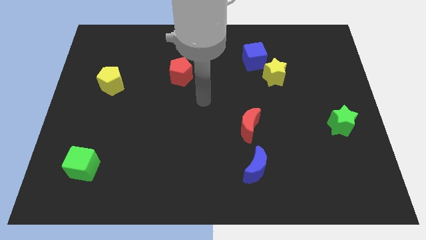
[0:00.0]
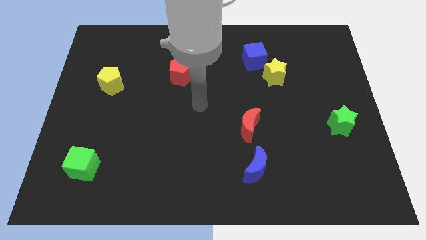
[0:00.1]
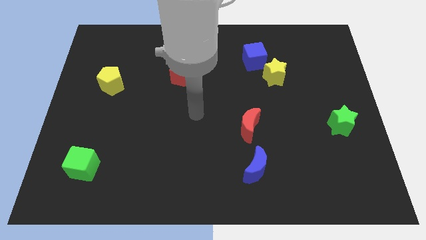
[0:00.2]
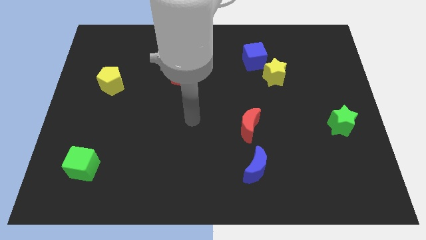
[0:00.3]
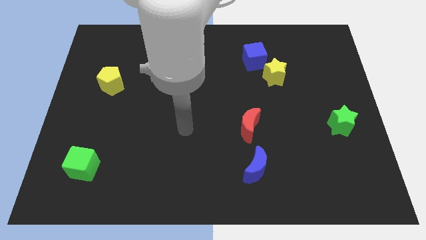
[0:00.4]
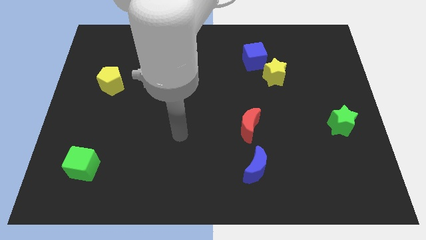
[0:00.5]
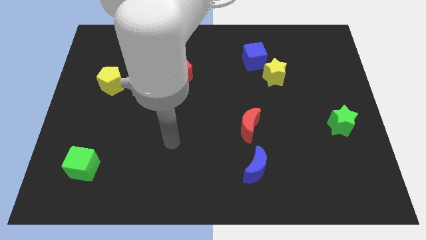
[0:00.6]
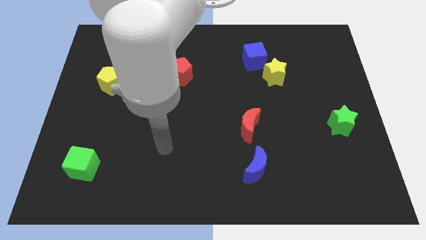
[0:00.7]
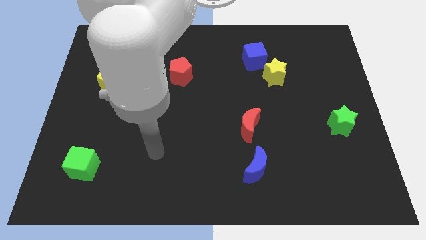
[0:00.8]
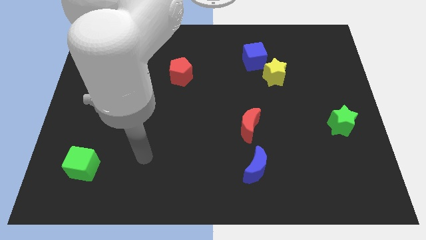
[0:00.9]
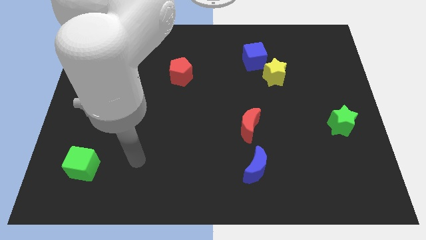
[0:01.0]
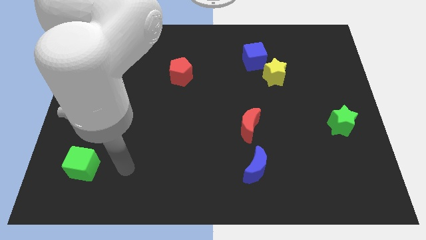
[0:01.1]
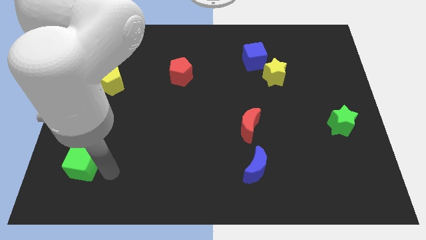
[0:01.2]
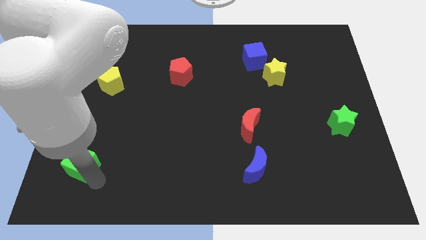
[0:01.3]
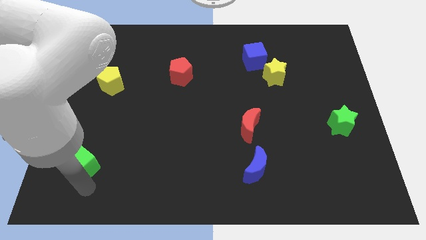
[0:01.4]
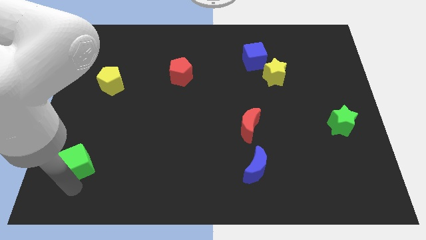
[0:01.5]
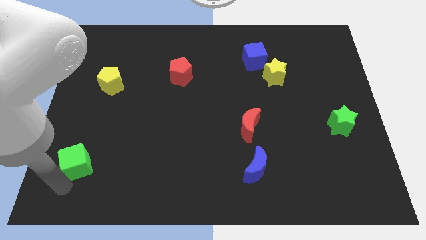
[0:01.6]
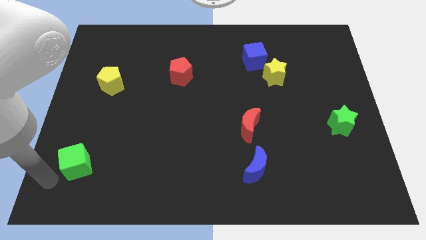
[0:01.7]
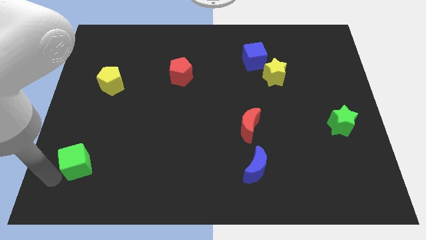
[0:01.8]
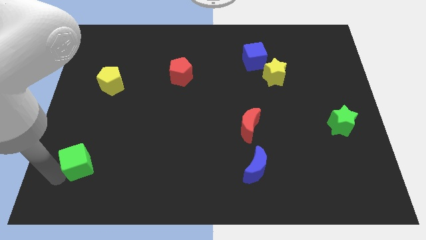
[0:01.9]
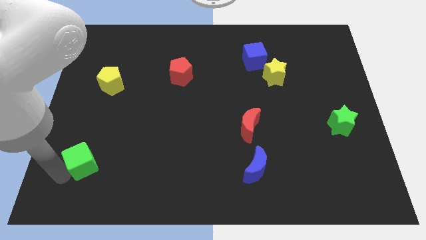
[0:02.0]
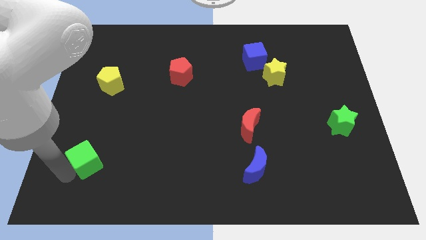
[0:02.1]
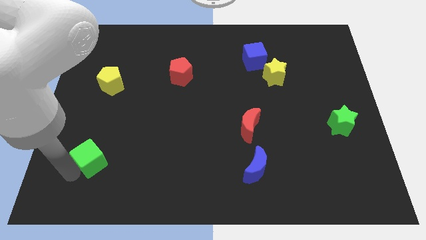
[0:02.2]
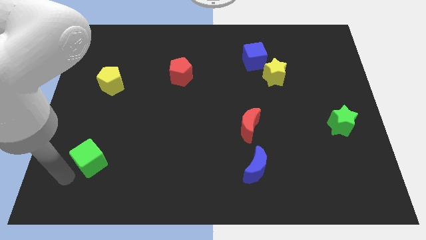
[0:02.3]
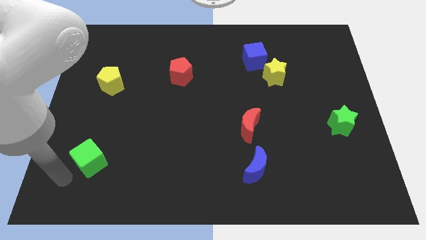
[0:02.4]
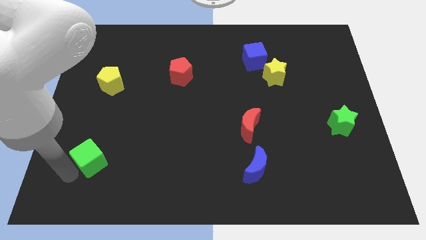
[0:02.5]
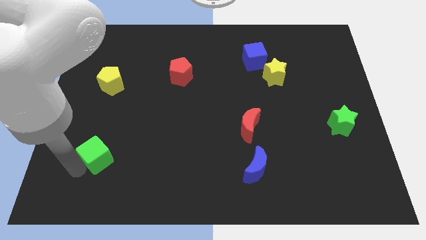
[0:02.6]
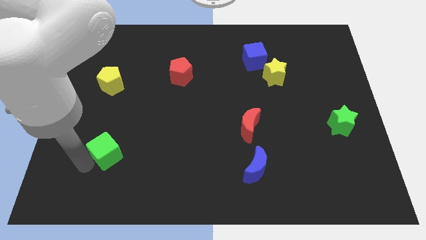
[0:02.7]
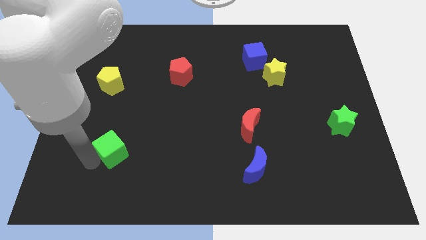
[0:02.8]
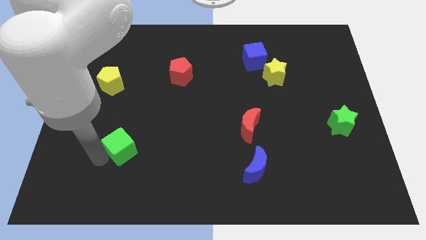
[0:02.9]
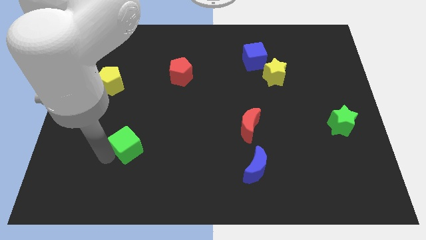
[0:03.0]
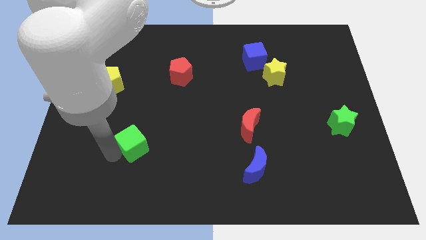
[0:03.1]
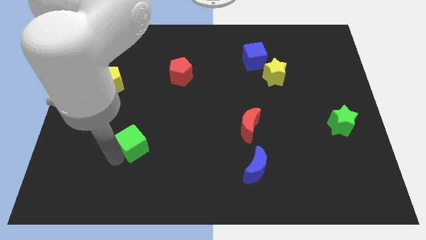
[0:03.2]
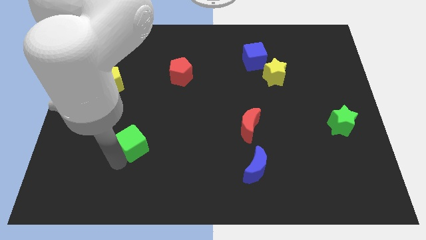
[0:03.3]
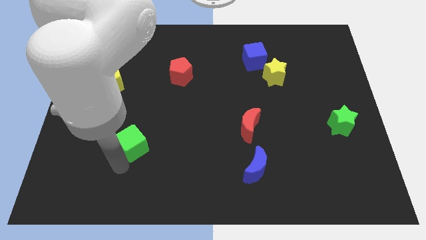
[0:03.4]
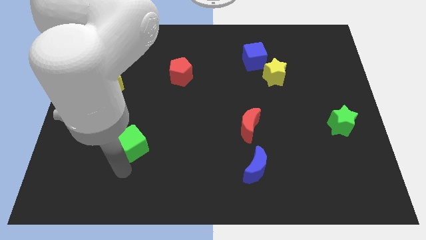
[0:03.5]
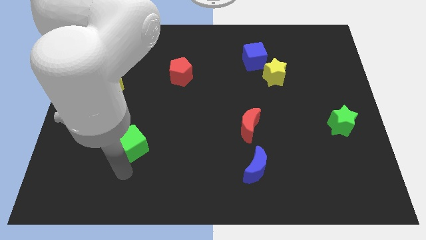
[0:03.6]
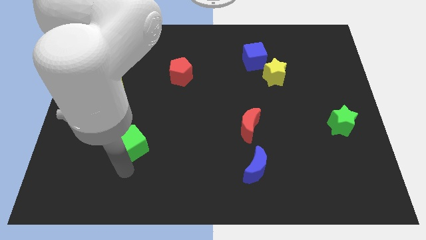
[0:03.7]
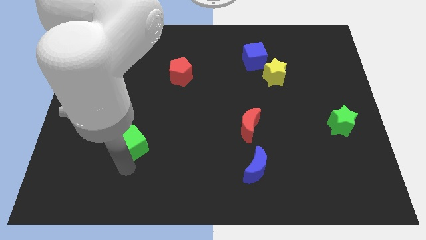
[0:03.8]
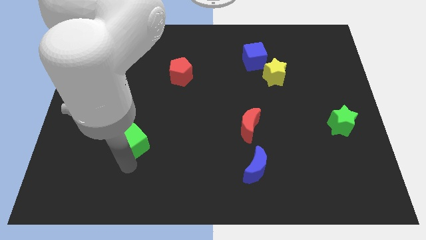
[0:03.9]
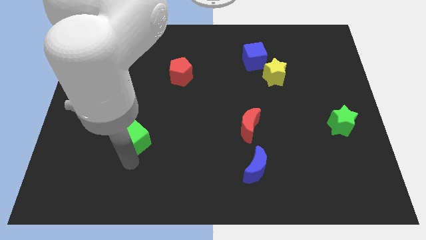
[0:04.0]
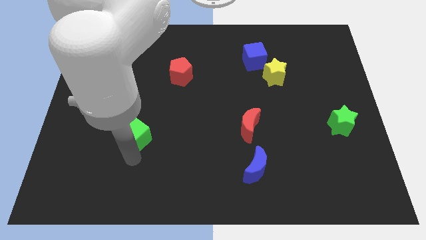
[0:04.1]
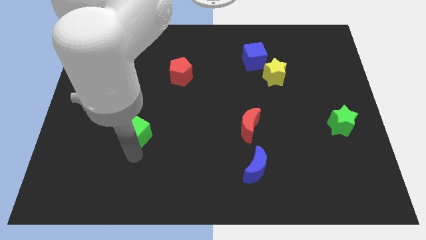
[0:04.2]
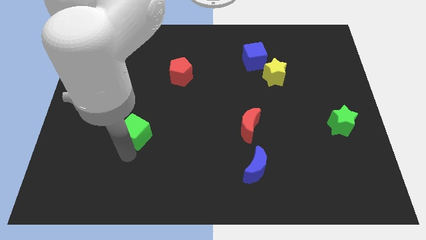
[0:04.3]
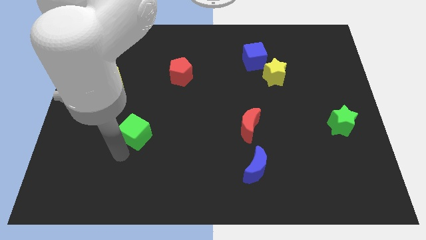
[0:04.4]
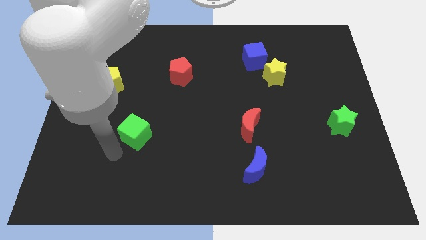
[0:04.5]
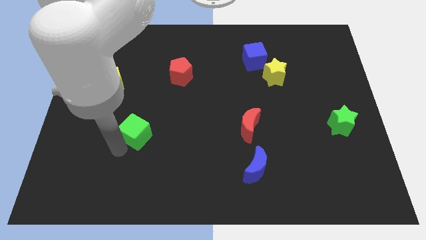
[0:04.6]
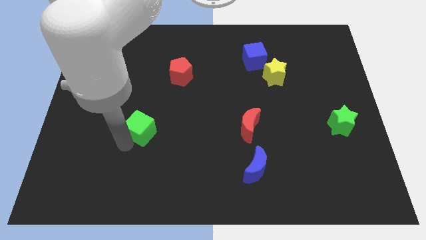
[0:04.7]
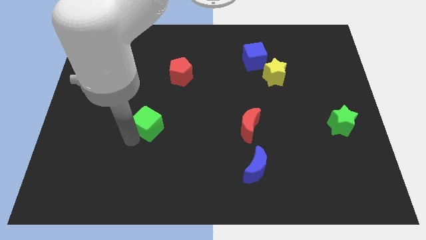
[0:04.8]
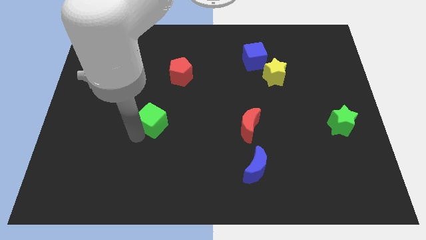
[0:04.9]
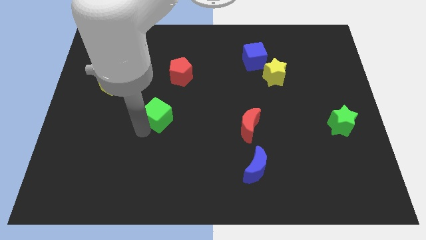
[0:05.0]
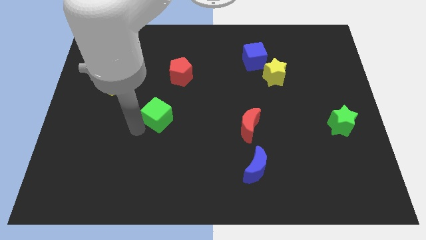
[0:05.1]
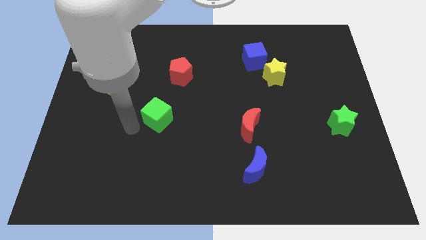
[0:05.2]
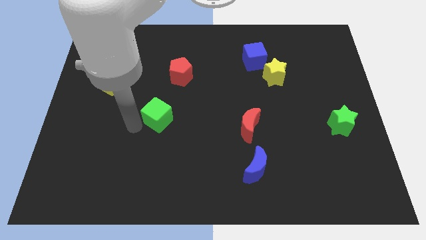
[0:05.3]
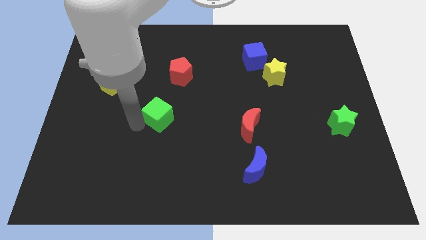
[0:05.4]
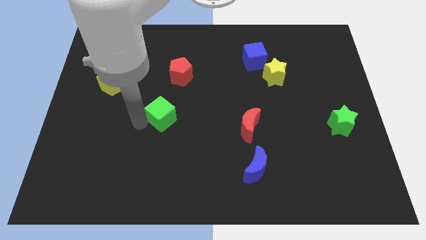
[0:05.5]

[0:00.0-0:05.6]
push the green cube to the center of the board

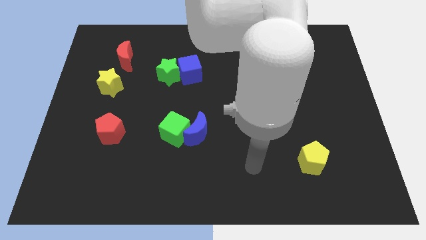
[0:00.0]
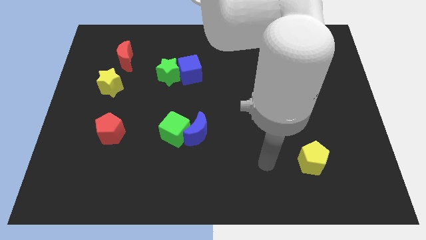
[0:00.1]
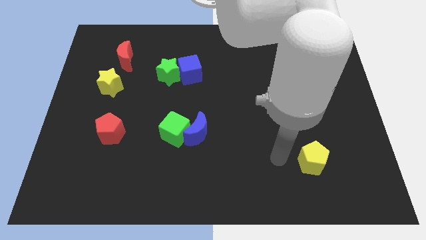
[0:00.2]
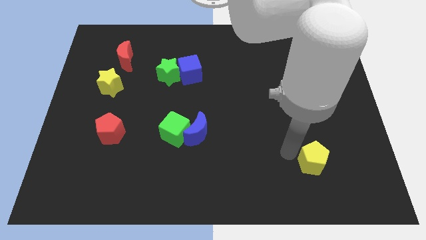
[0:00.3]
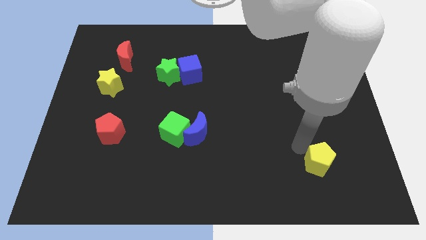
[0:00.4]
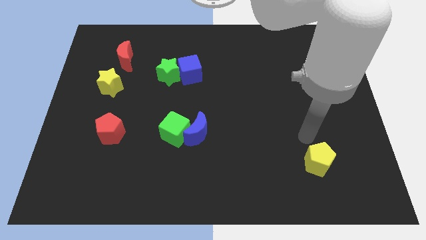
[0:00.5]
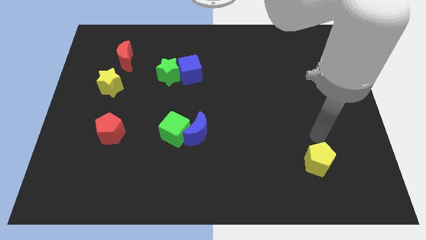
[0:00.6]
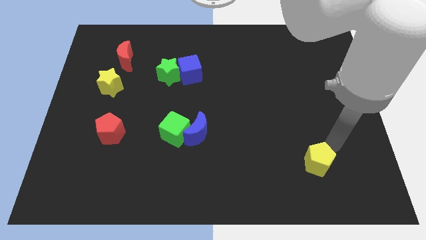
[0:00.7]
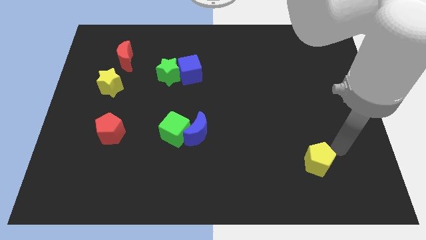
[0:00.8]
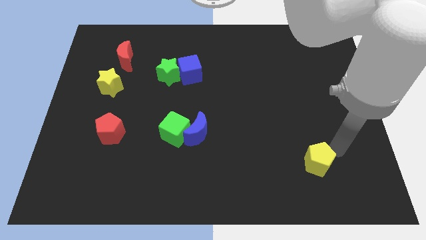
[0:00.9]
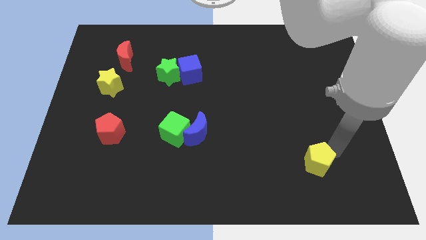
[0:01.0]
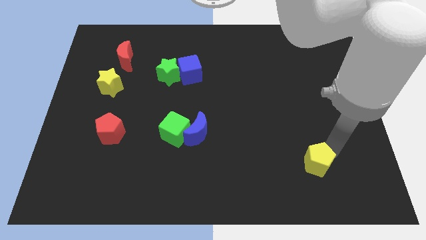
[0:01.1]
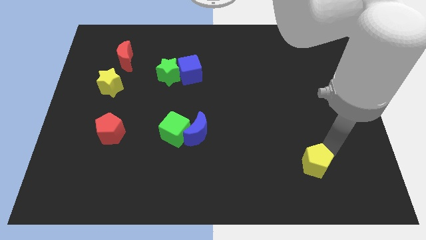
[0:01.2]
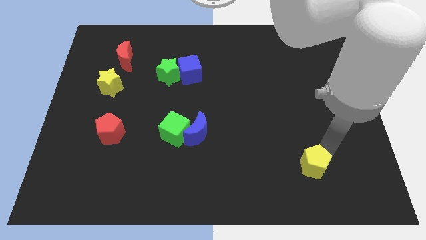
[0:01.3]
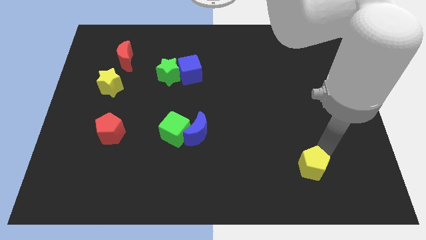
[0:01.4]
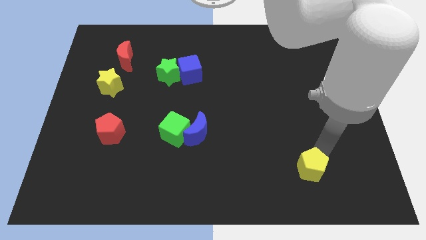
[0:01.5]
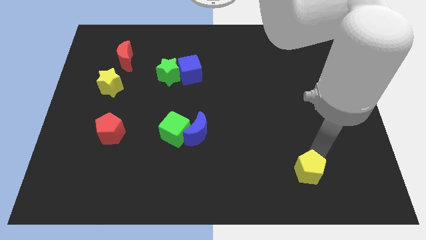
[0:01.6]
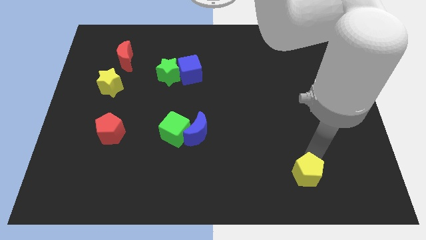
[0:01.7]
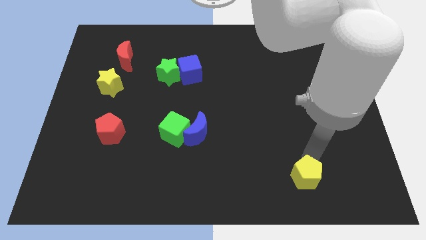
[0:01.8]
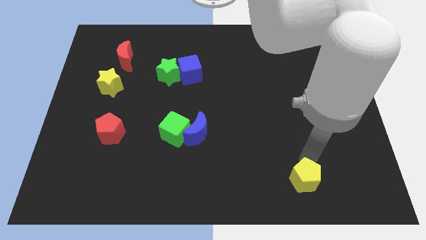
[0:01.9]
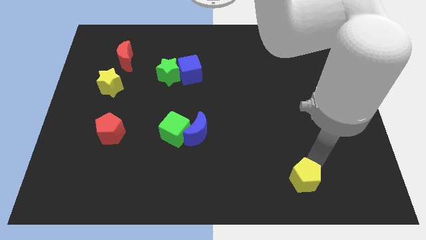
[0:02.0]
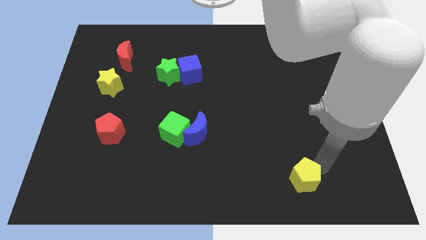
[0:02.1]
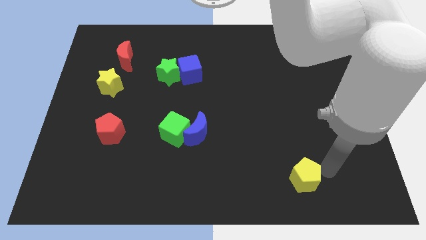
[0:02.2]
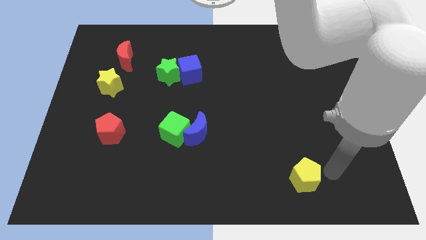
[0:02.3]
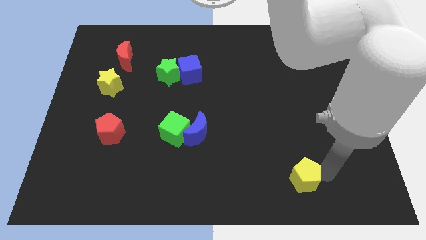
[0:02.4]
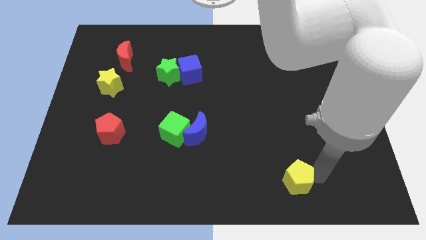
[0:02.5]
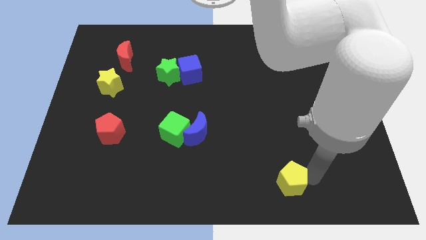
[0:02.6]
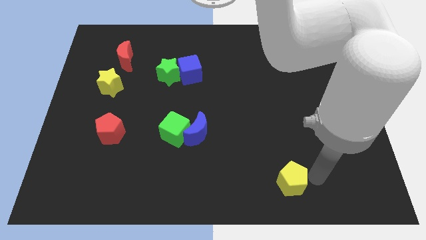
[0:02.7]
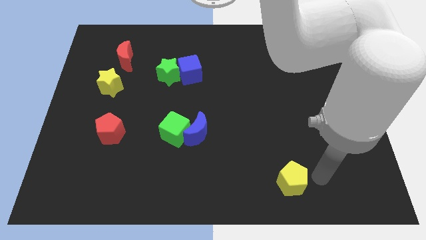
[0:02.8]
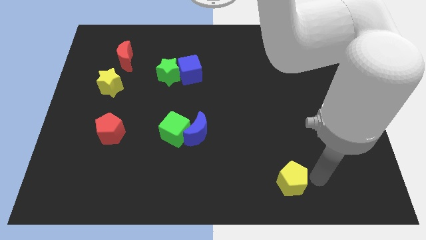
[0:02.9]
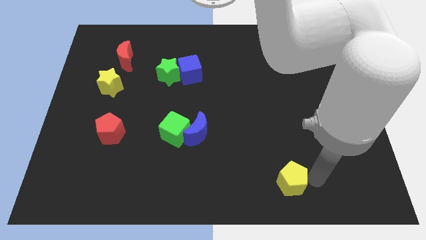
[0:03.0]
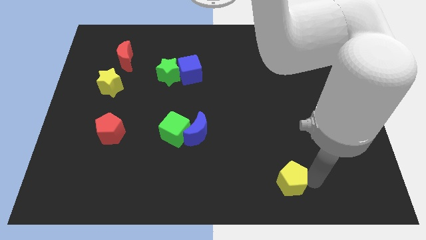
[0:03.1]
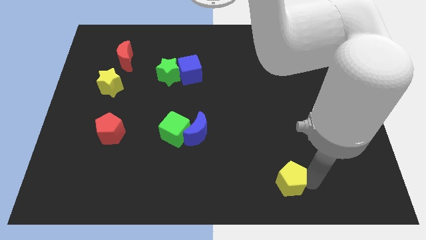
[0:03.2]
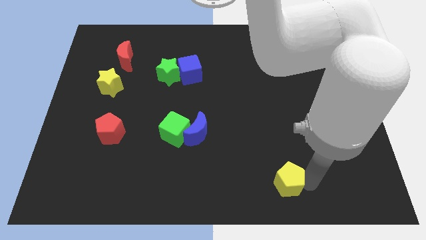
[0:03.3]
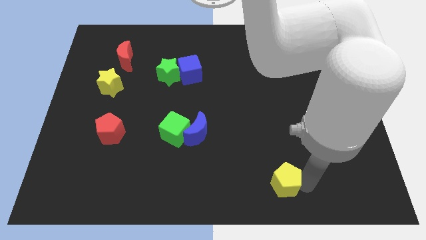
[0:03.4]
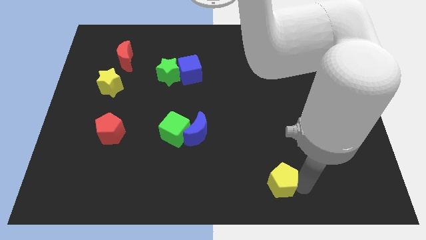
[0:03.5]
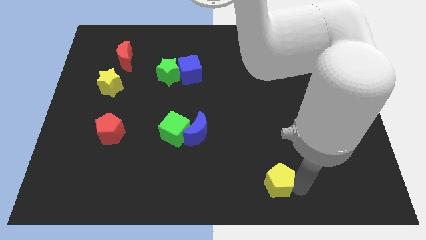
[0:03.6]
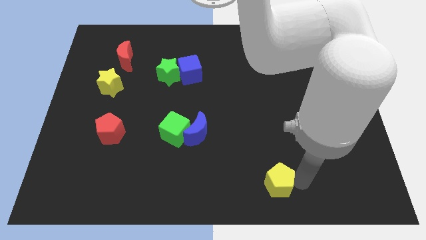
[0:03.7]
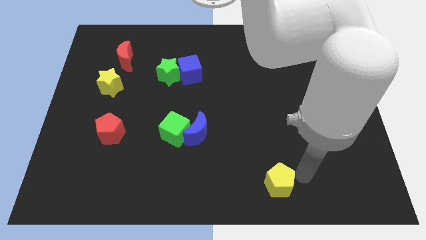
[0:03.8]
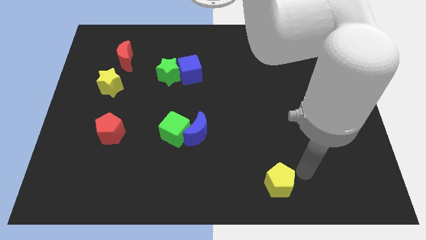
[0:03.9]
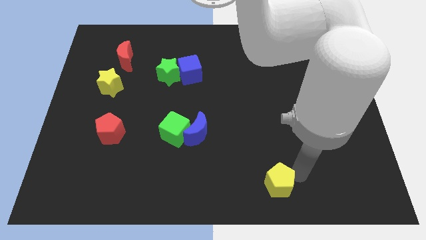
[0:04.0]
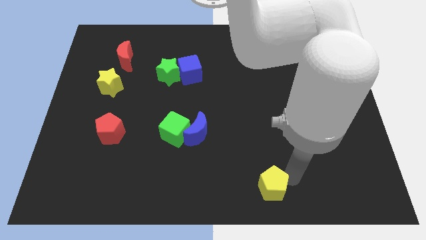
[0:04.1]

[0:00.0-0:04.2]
slide the yellow pentagon to the bottom
